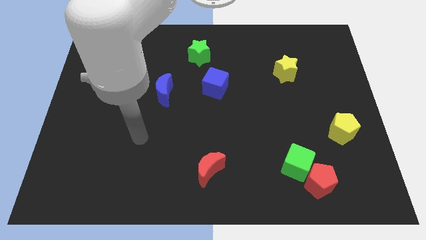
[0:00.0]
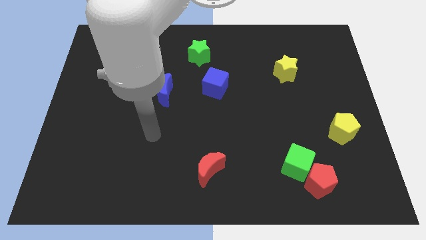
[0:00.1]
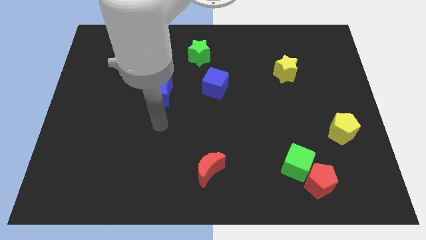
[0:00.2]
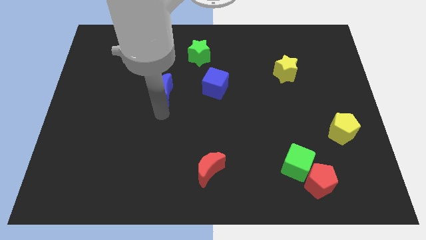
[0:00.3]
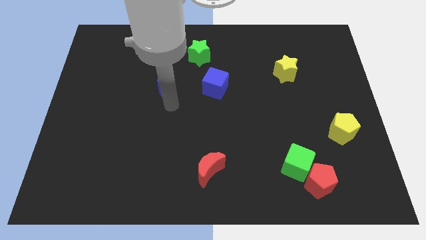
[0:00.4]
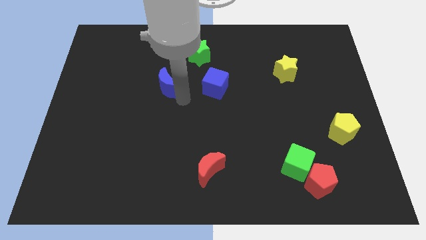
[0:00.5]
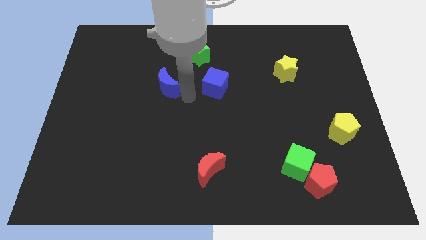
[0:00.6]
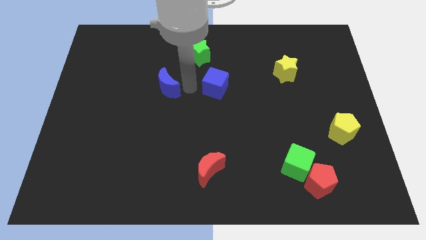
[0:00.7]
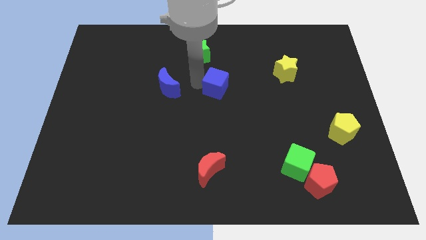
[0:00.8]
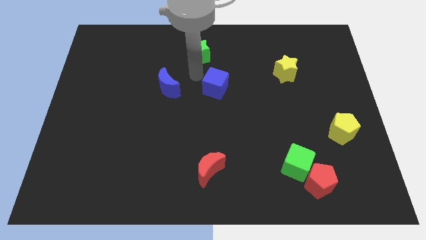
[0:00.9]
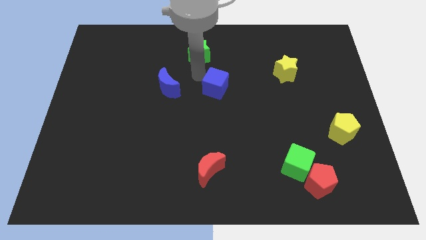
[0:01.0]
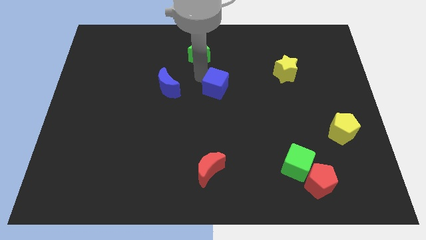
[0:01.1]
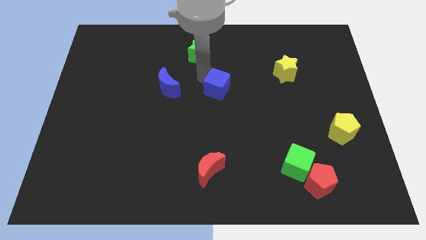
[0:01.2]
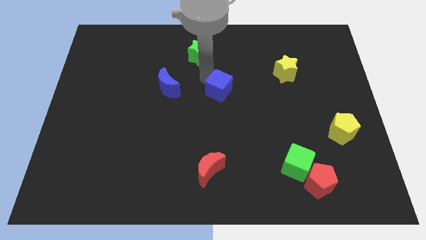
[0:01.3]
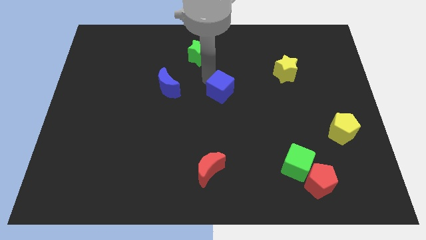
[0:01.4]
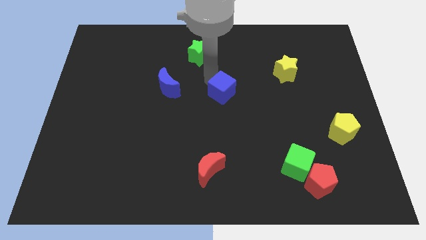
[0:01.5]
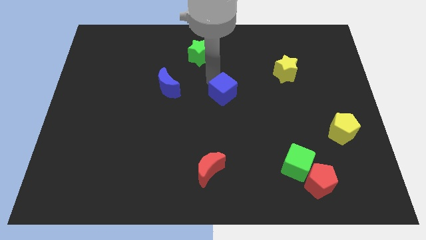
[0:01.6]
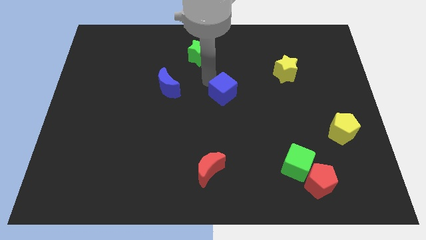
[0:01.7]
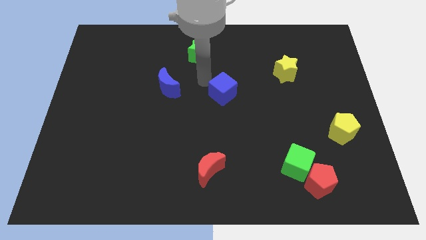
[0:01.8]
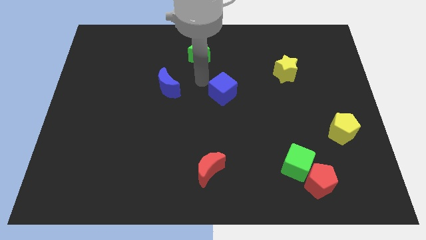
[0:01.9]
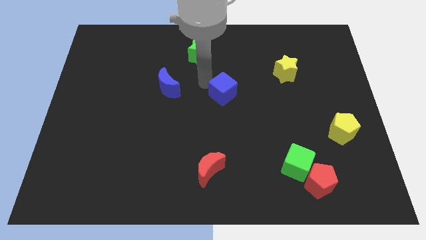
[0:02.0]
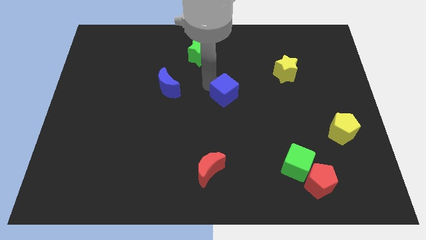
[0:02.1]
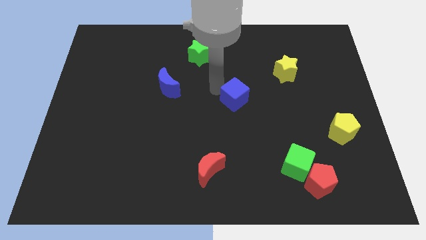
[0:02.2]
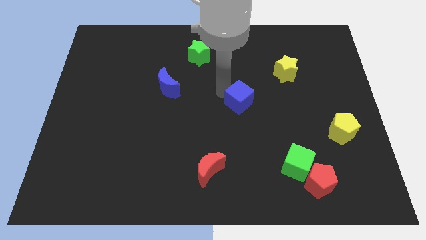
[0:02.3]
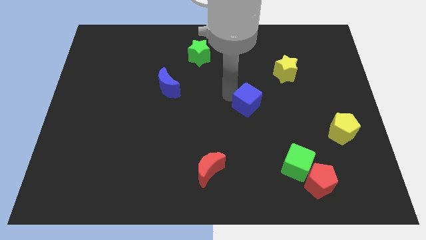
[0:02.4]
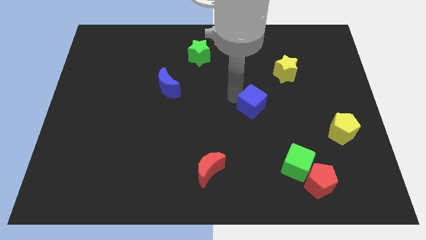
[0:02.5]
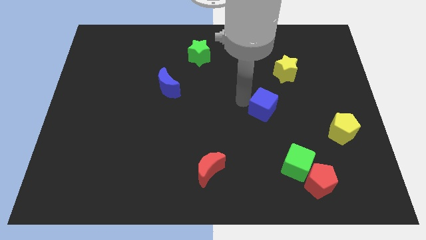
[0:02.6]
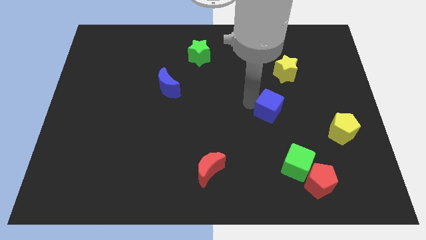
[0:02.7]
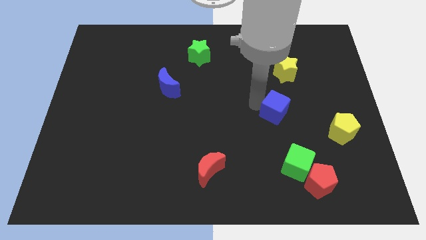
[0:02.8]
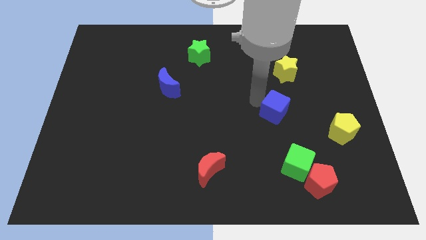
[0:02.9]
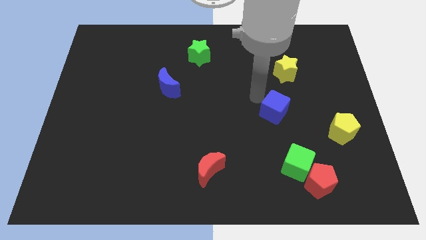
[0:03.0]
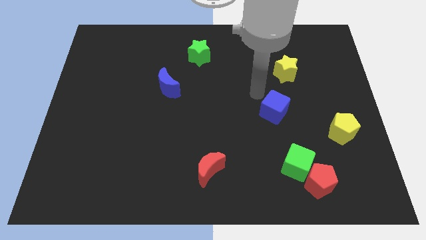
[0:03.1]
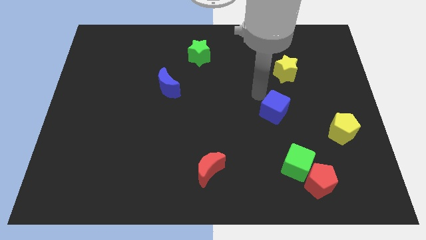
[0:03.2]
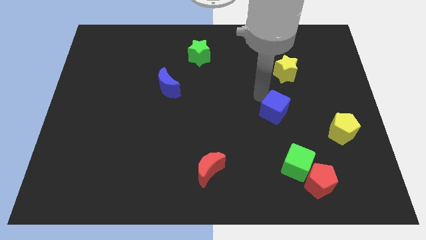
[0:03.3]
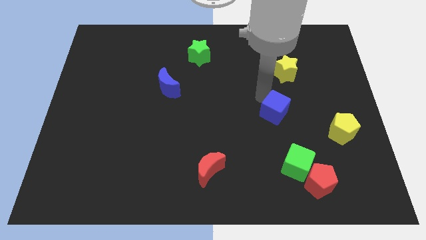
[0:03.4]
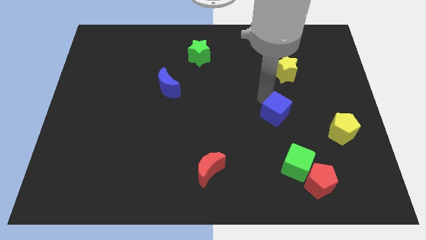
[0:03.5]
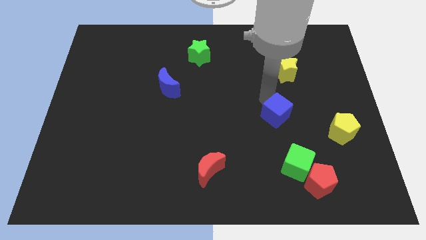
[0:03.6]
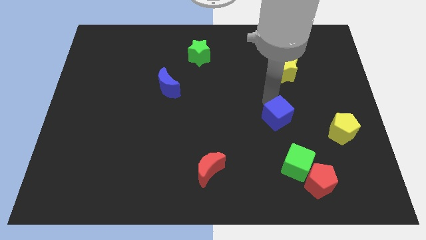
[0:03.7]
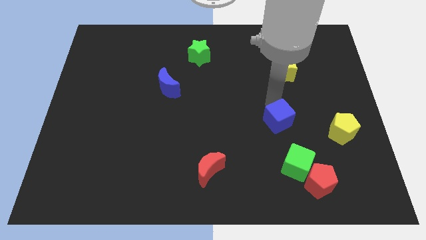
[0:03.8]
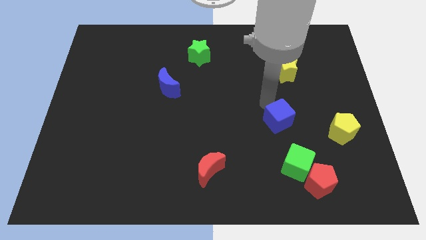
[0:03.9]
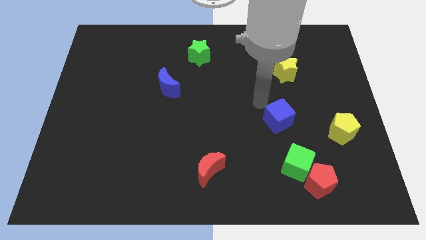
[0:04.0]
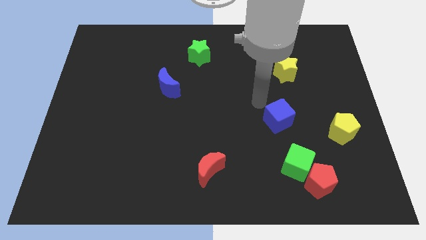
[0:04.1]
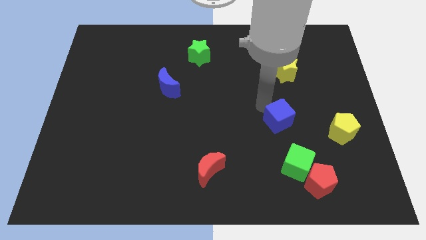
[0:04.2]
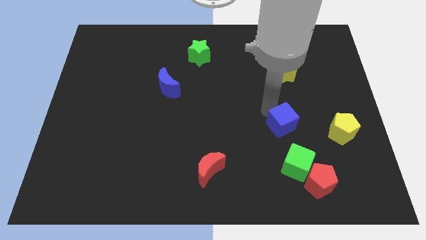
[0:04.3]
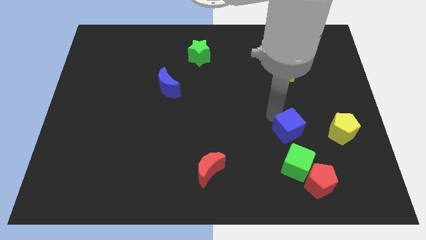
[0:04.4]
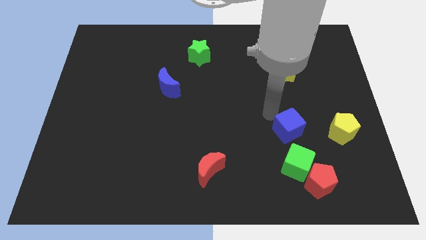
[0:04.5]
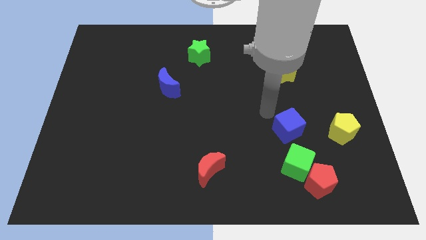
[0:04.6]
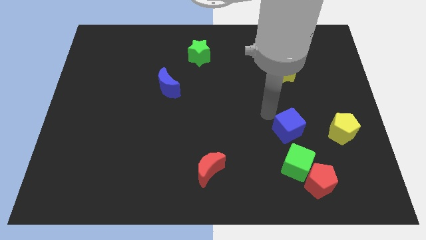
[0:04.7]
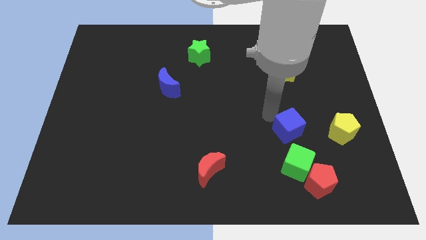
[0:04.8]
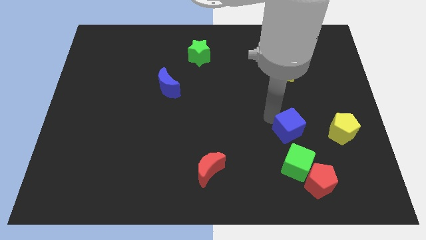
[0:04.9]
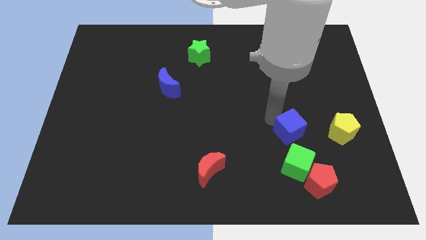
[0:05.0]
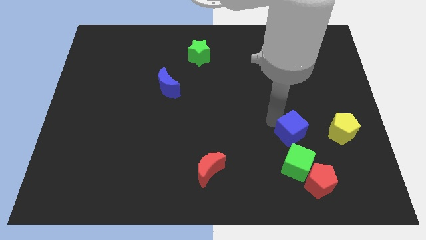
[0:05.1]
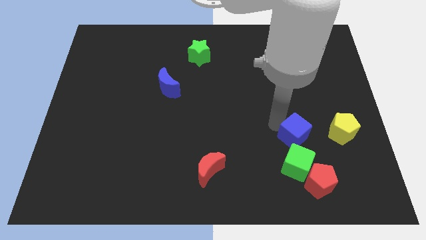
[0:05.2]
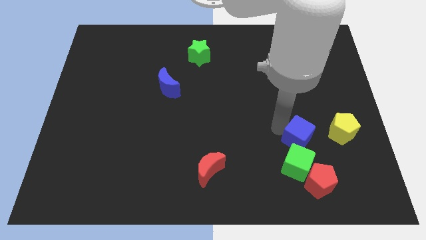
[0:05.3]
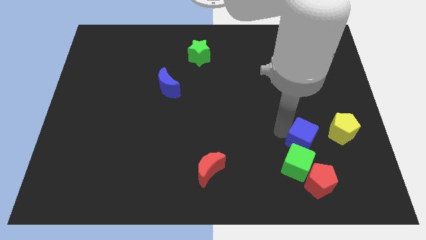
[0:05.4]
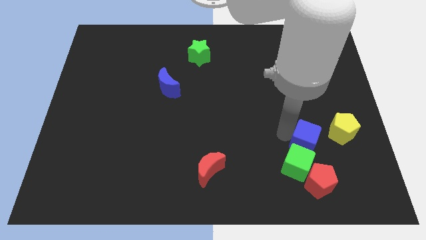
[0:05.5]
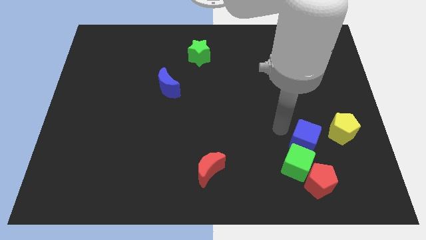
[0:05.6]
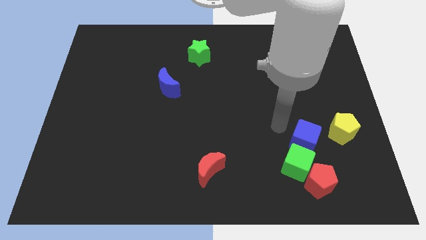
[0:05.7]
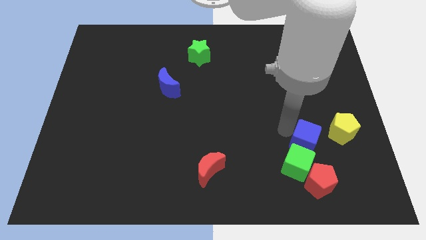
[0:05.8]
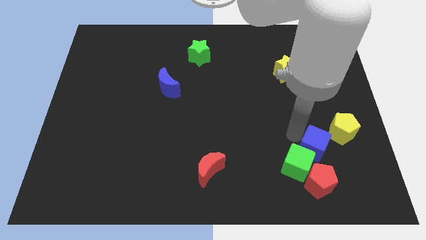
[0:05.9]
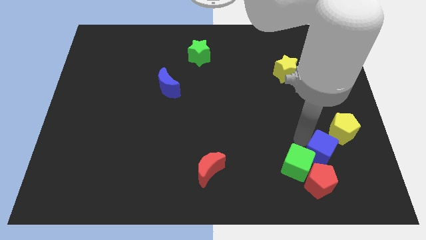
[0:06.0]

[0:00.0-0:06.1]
move the blue cube to the top right of the red pentagon
